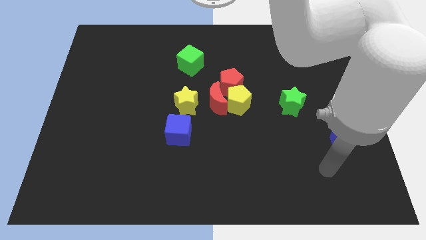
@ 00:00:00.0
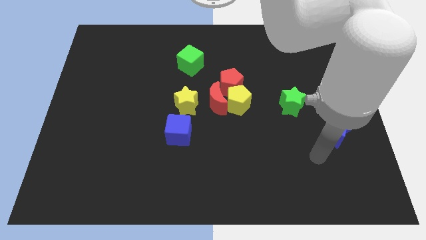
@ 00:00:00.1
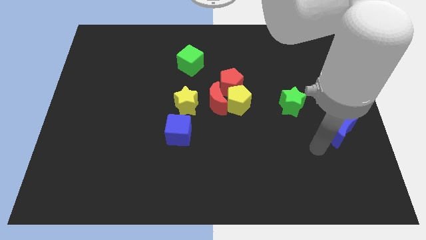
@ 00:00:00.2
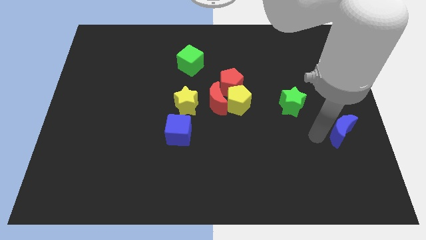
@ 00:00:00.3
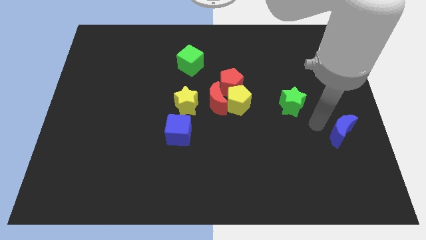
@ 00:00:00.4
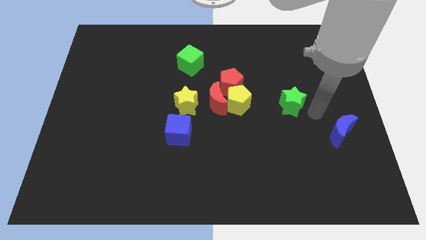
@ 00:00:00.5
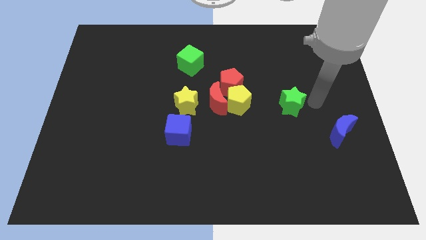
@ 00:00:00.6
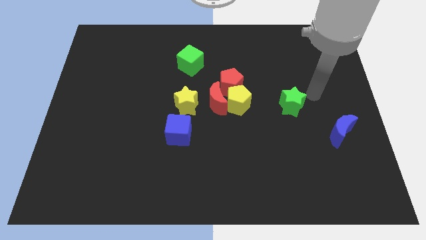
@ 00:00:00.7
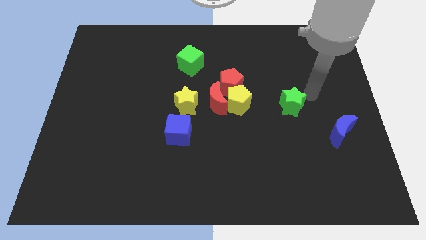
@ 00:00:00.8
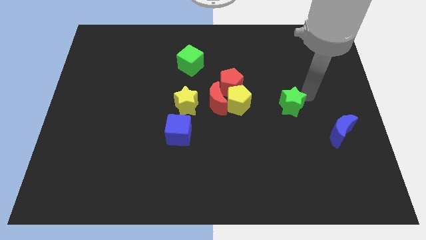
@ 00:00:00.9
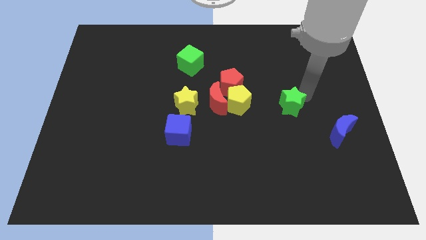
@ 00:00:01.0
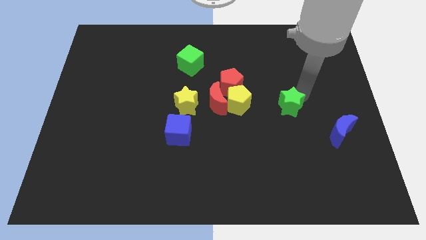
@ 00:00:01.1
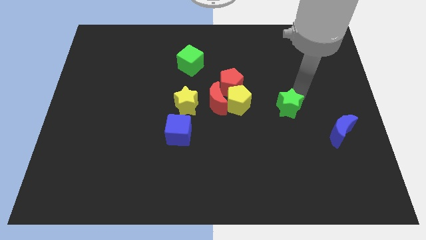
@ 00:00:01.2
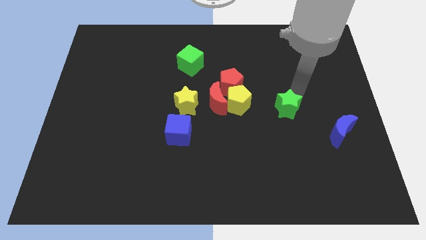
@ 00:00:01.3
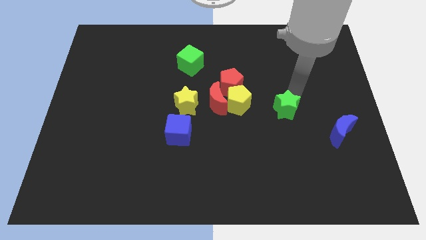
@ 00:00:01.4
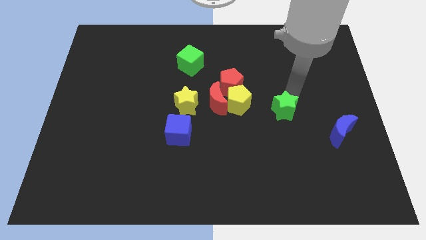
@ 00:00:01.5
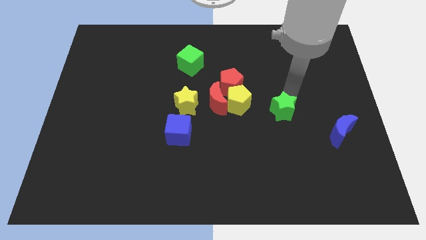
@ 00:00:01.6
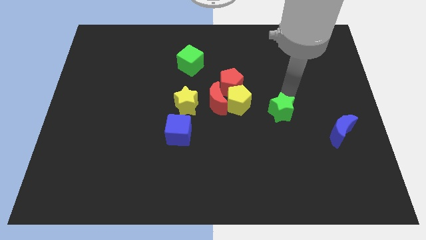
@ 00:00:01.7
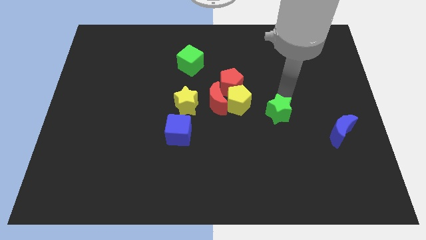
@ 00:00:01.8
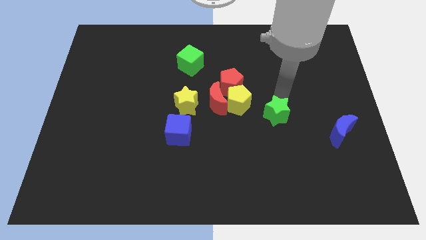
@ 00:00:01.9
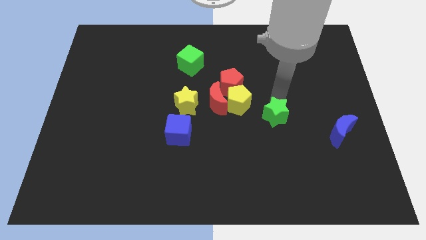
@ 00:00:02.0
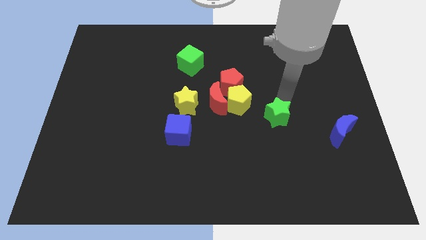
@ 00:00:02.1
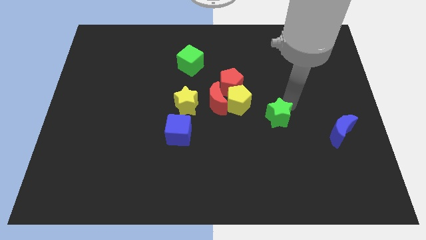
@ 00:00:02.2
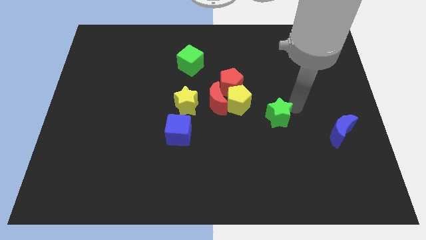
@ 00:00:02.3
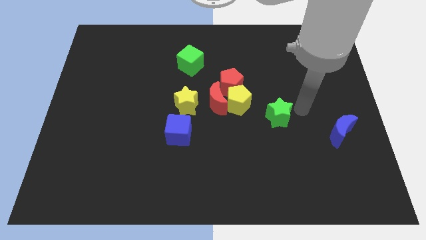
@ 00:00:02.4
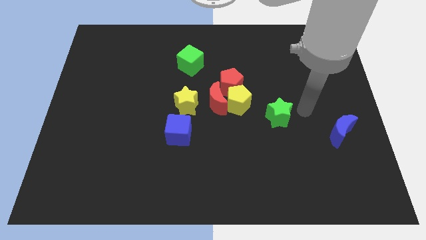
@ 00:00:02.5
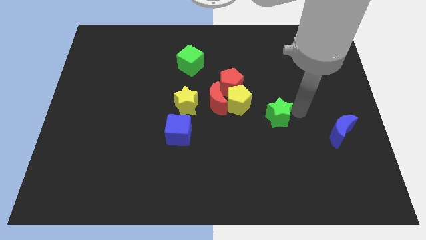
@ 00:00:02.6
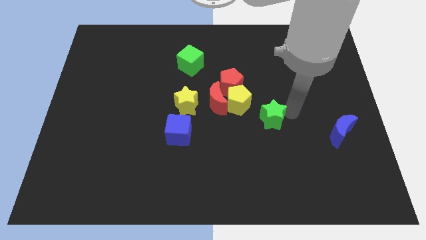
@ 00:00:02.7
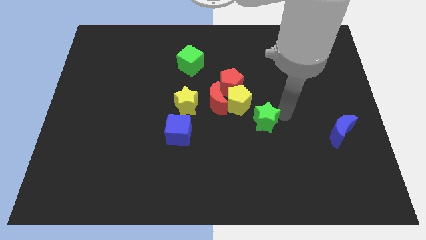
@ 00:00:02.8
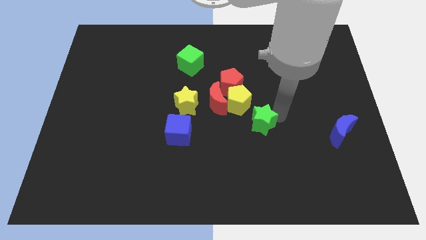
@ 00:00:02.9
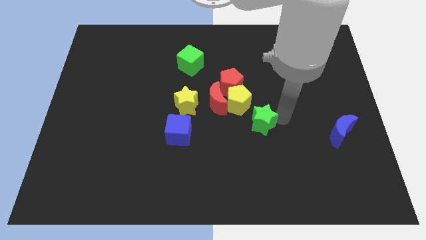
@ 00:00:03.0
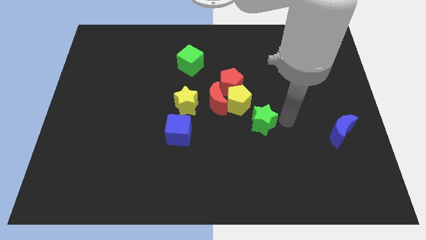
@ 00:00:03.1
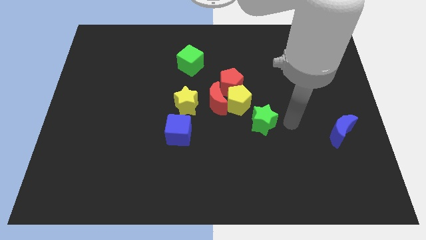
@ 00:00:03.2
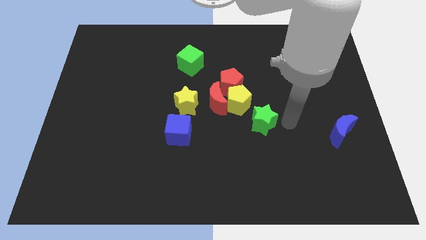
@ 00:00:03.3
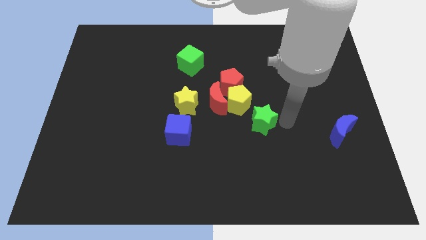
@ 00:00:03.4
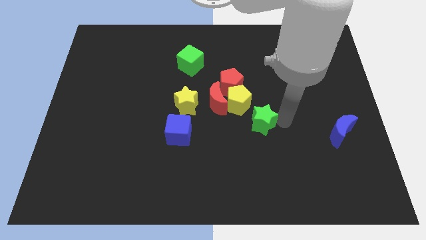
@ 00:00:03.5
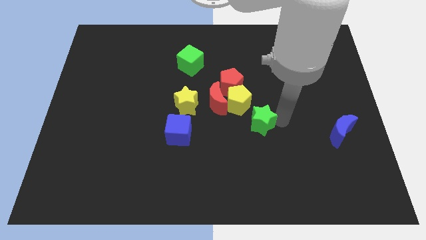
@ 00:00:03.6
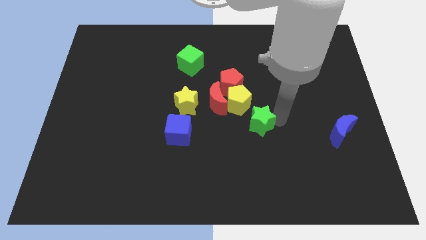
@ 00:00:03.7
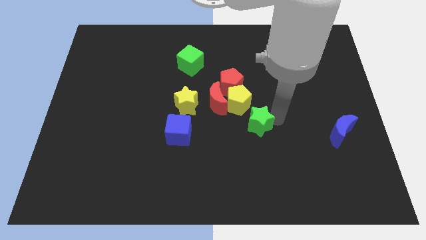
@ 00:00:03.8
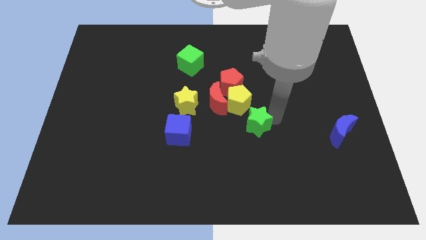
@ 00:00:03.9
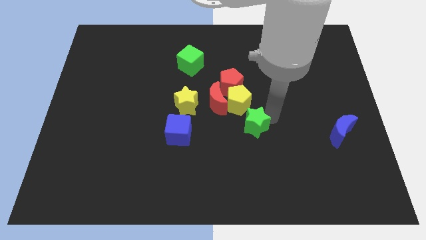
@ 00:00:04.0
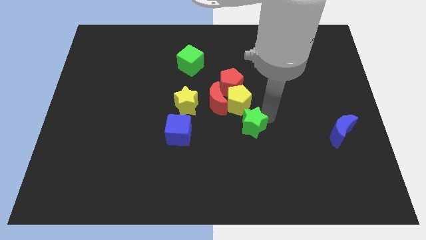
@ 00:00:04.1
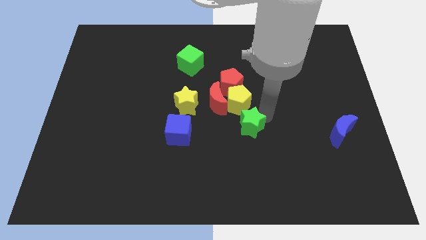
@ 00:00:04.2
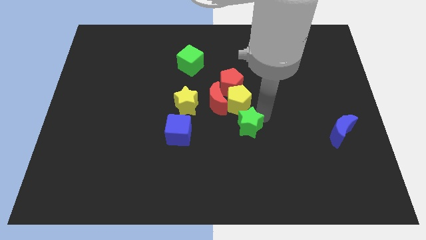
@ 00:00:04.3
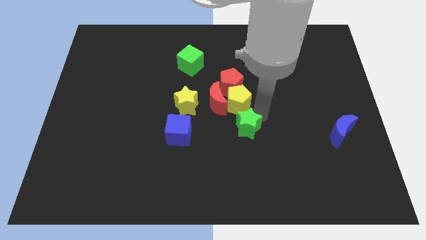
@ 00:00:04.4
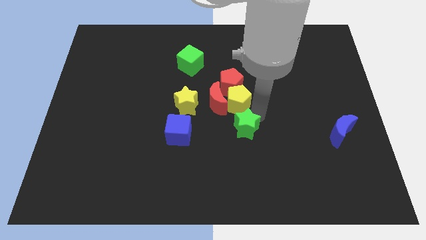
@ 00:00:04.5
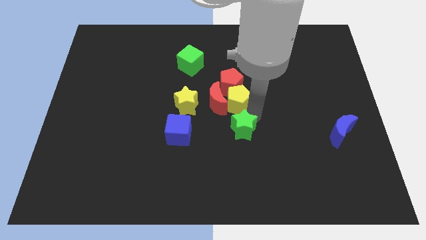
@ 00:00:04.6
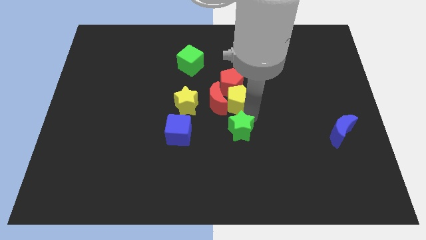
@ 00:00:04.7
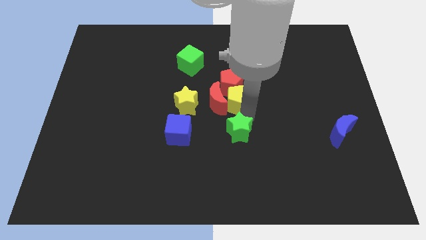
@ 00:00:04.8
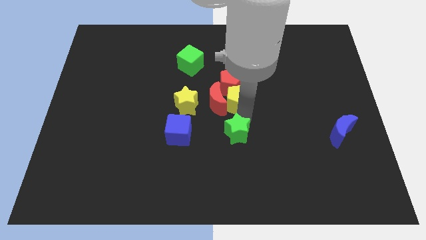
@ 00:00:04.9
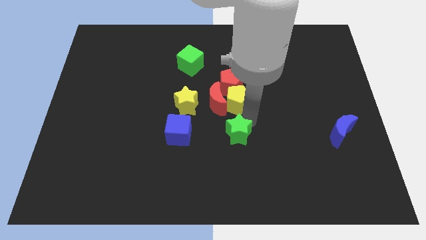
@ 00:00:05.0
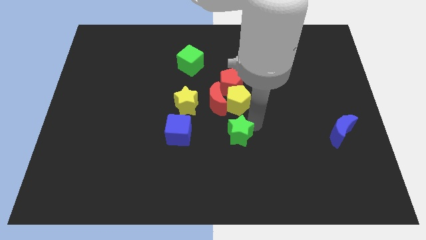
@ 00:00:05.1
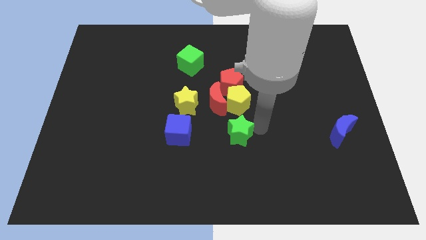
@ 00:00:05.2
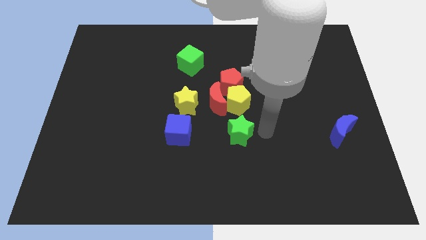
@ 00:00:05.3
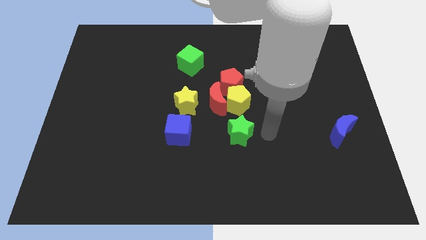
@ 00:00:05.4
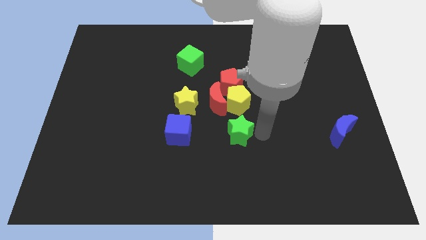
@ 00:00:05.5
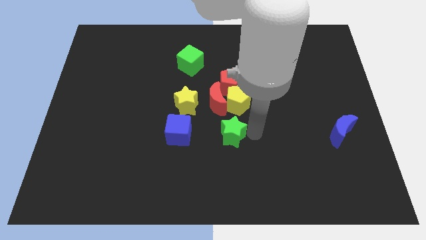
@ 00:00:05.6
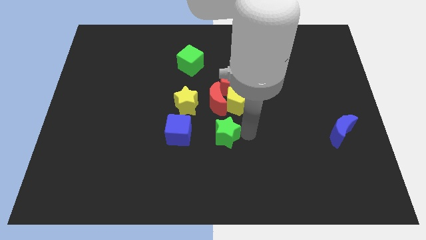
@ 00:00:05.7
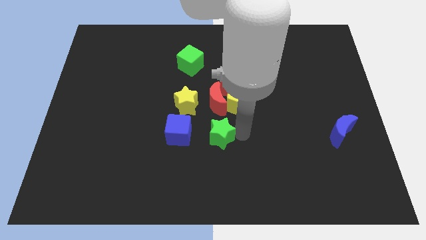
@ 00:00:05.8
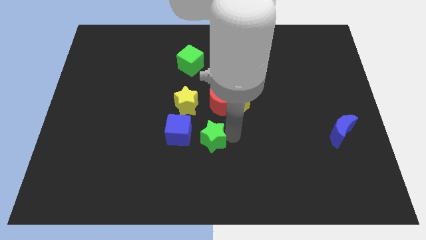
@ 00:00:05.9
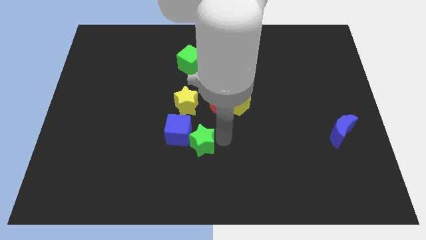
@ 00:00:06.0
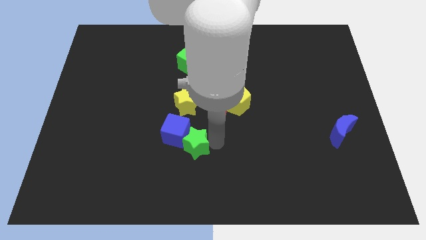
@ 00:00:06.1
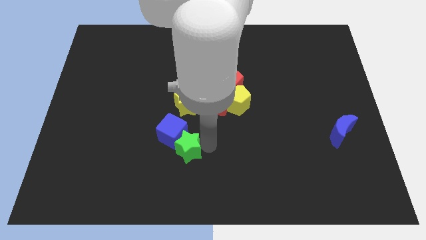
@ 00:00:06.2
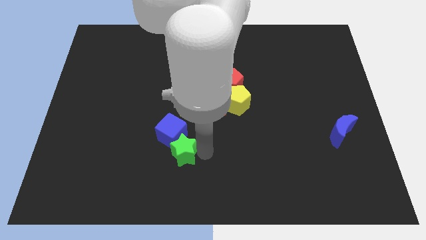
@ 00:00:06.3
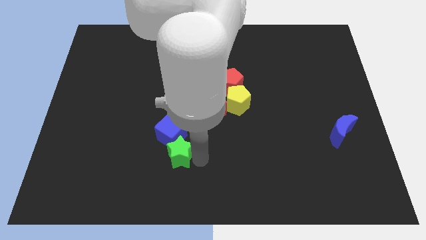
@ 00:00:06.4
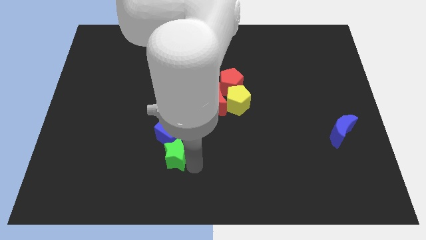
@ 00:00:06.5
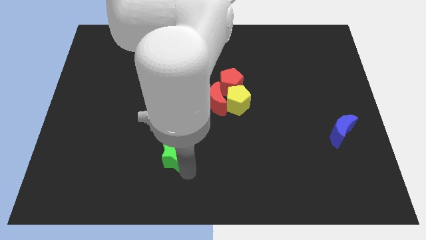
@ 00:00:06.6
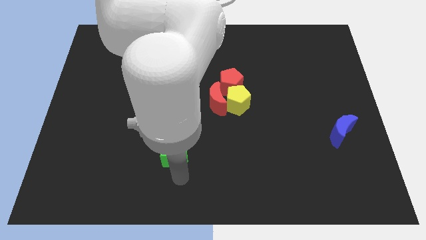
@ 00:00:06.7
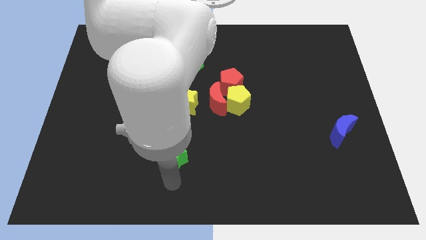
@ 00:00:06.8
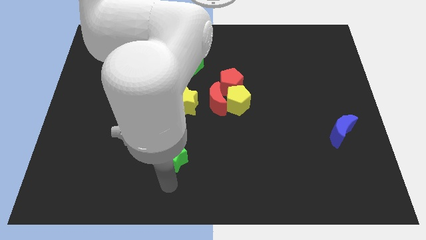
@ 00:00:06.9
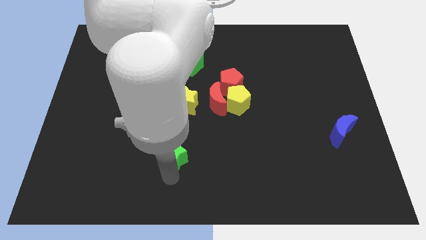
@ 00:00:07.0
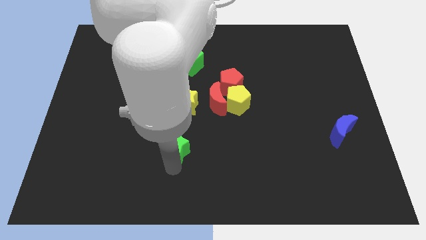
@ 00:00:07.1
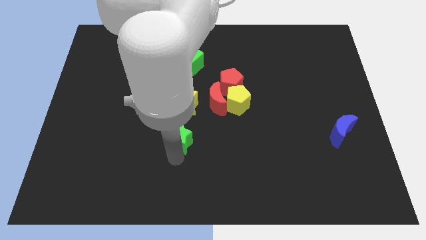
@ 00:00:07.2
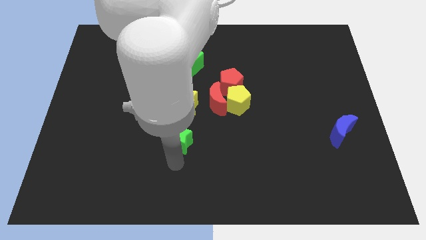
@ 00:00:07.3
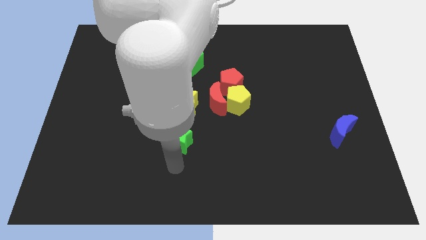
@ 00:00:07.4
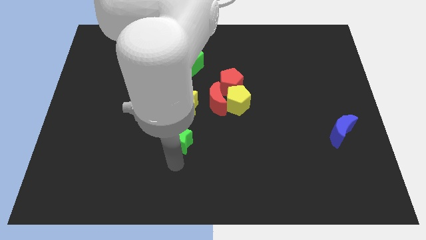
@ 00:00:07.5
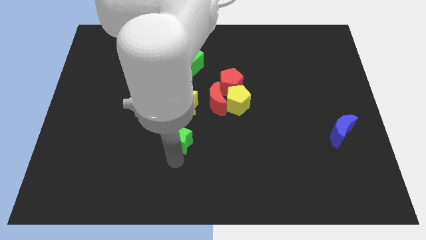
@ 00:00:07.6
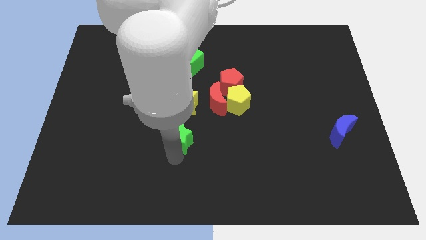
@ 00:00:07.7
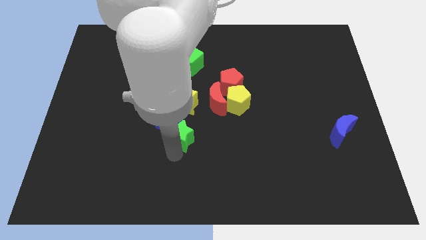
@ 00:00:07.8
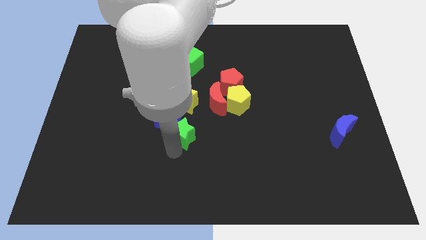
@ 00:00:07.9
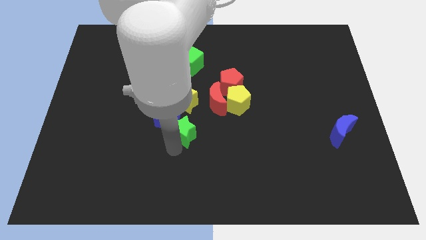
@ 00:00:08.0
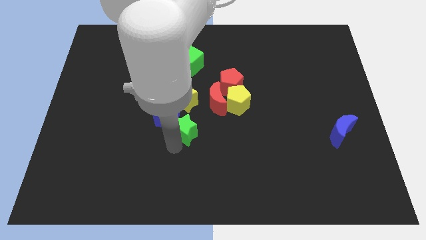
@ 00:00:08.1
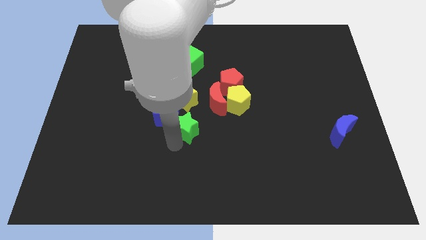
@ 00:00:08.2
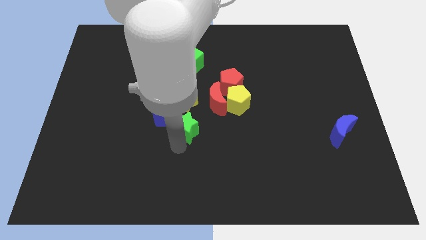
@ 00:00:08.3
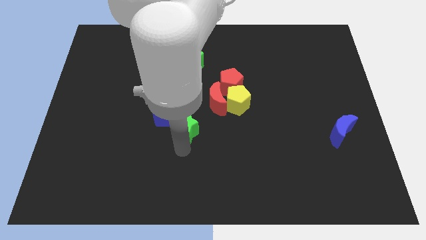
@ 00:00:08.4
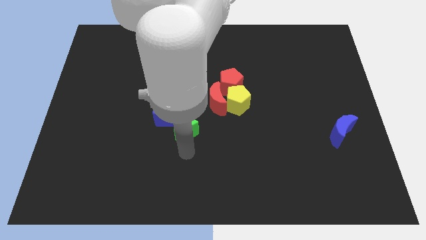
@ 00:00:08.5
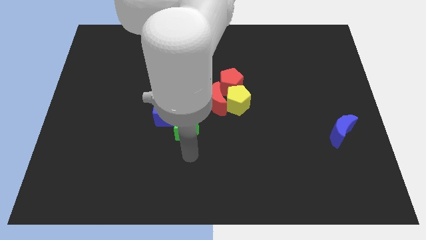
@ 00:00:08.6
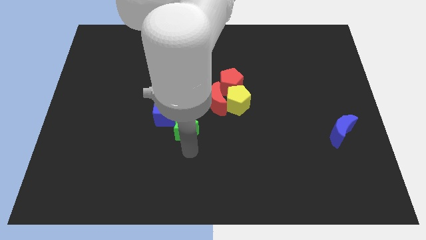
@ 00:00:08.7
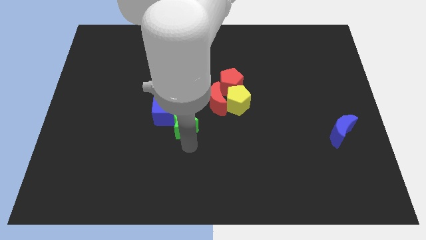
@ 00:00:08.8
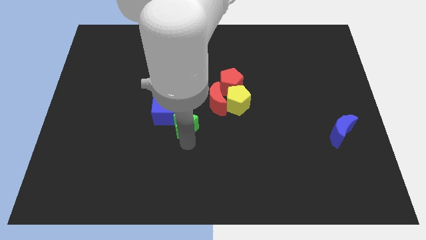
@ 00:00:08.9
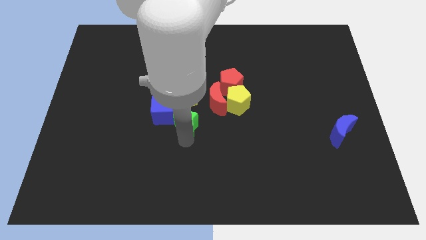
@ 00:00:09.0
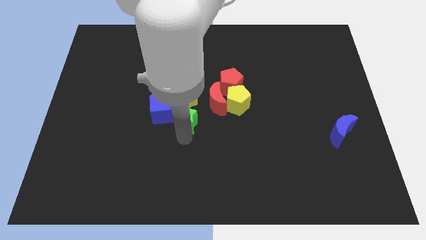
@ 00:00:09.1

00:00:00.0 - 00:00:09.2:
push the green star to the bottom left side of the yellow star
